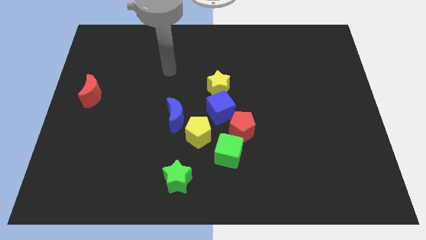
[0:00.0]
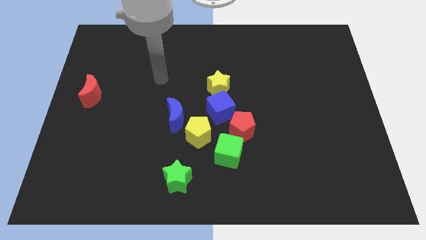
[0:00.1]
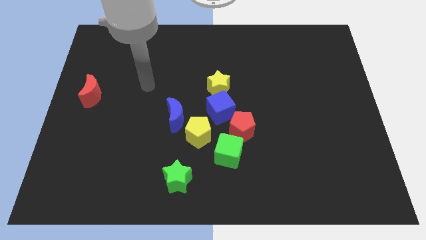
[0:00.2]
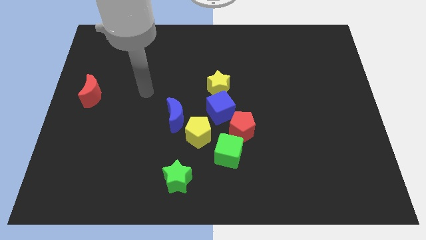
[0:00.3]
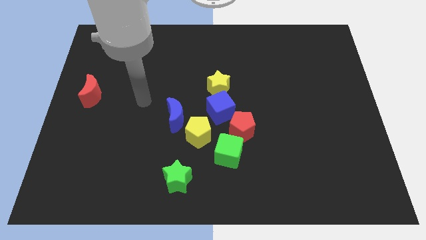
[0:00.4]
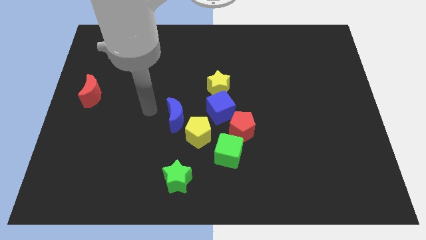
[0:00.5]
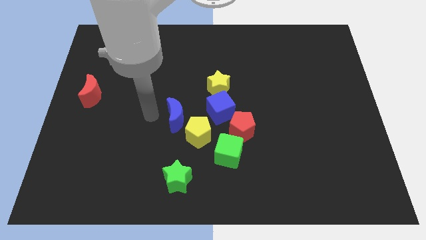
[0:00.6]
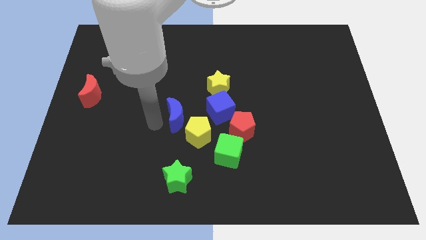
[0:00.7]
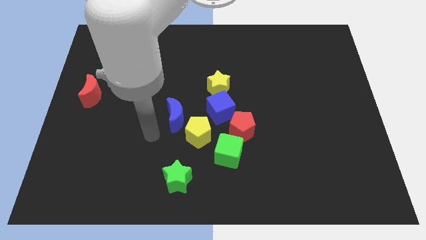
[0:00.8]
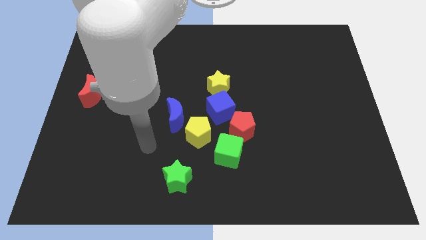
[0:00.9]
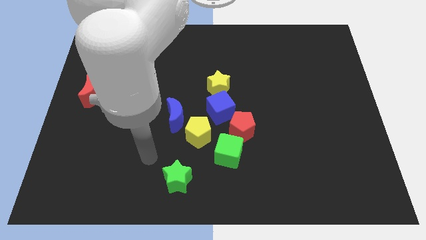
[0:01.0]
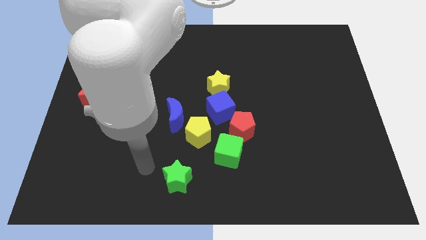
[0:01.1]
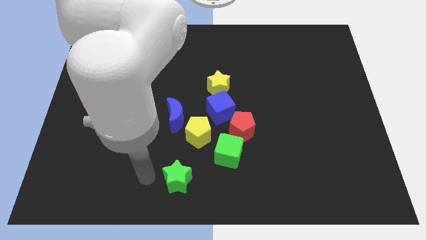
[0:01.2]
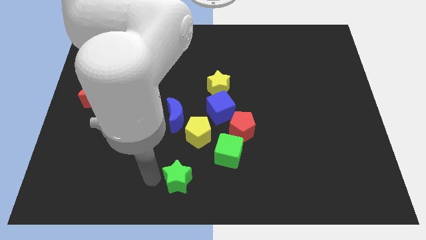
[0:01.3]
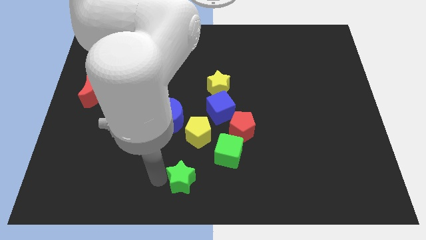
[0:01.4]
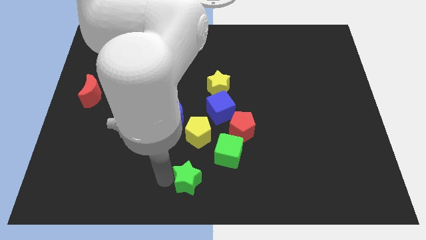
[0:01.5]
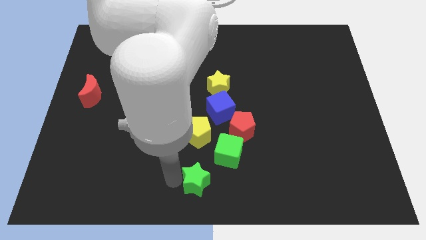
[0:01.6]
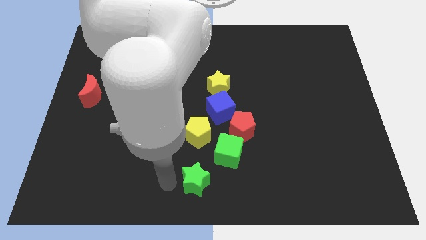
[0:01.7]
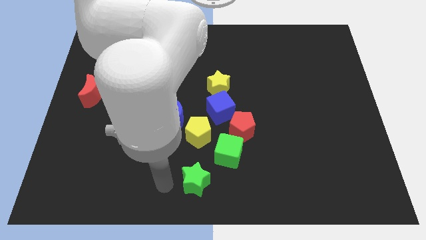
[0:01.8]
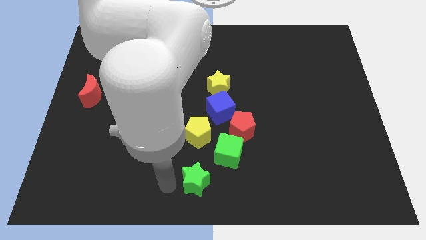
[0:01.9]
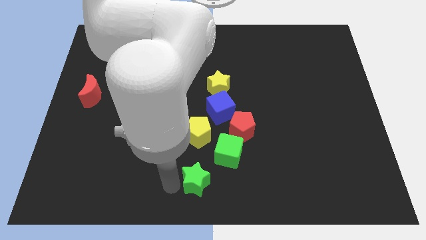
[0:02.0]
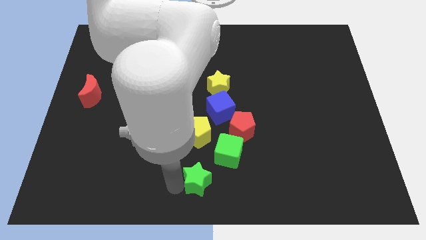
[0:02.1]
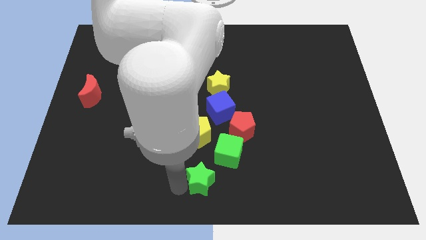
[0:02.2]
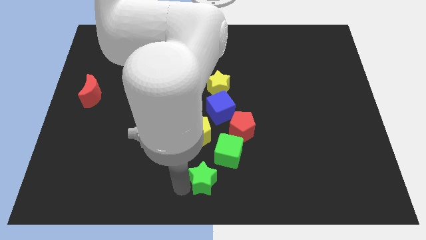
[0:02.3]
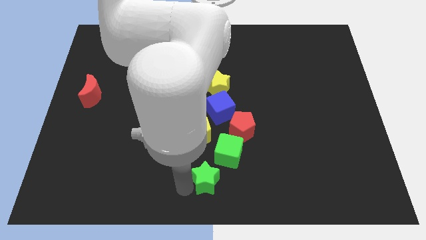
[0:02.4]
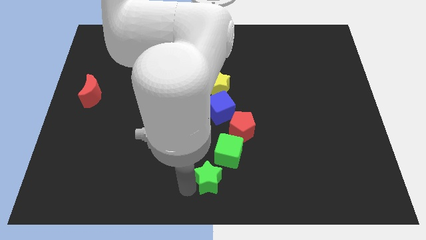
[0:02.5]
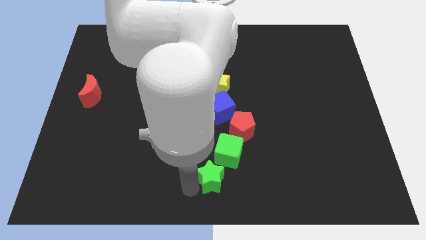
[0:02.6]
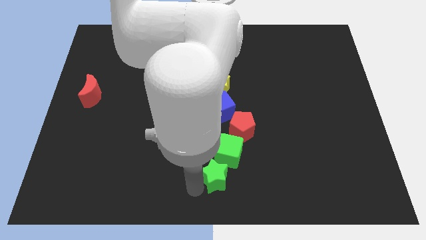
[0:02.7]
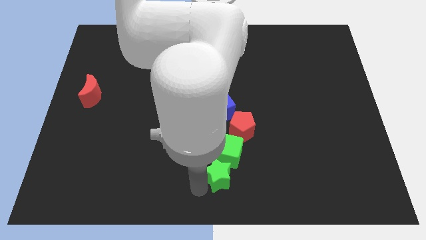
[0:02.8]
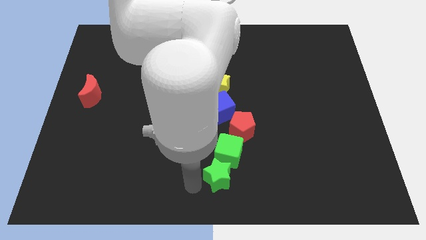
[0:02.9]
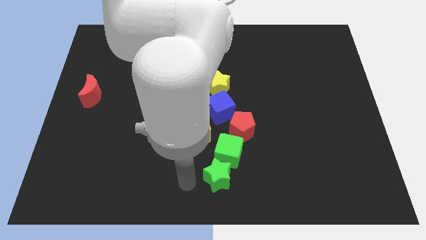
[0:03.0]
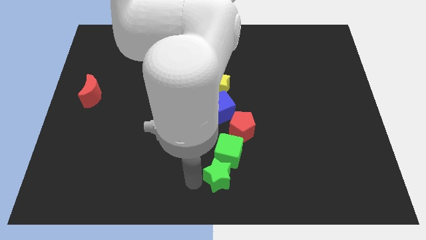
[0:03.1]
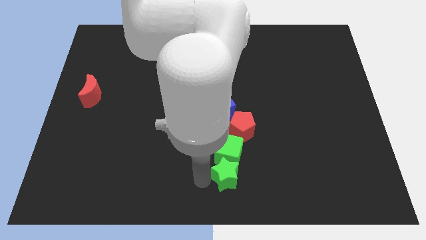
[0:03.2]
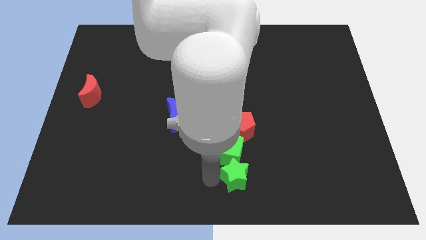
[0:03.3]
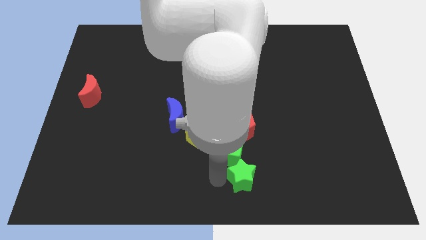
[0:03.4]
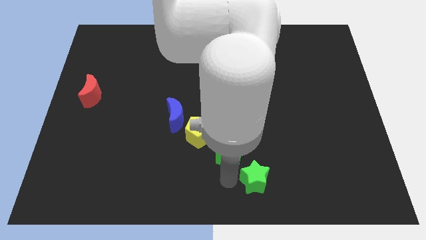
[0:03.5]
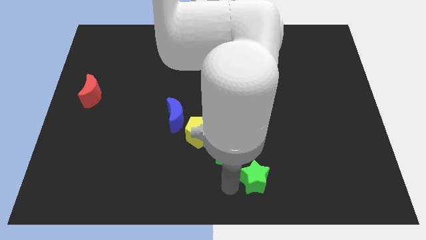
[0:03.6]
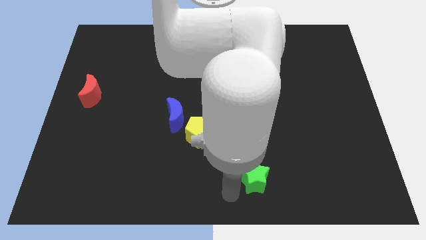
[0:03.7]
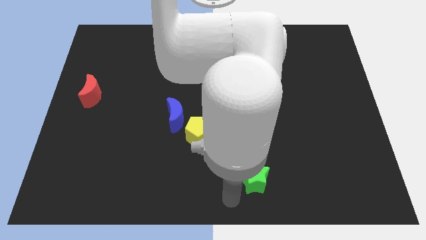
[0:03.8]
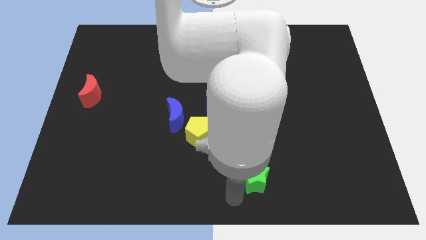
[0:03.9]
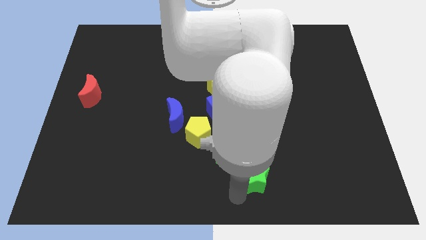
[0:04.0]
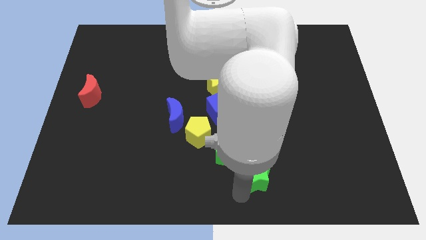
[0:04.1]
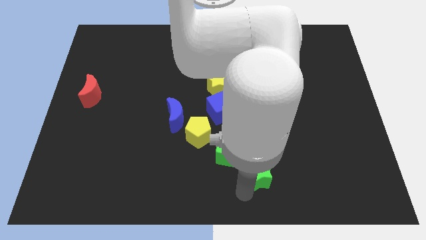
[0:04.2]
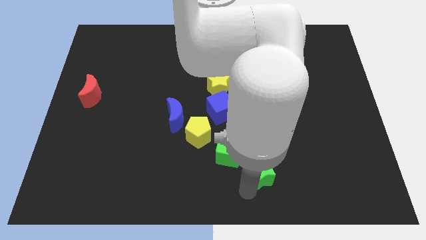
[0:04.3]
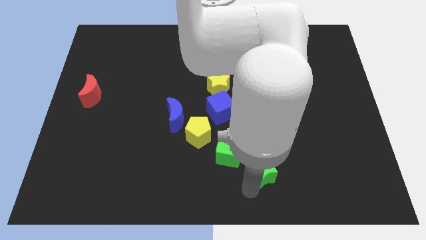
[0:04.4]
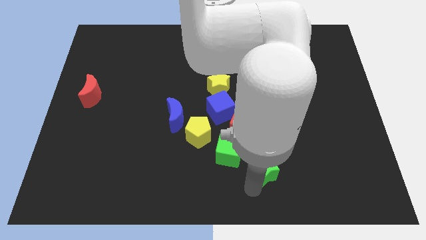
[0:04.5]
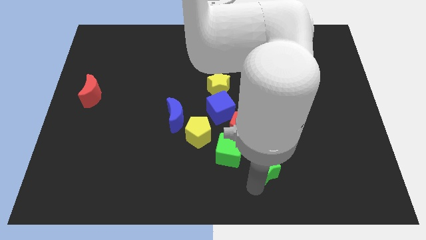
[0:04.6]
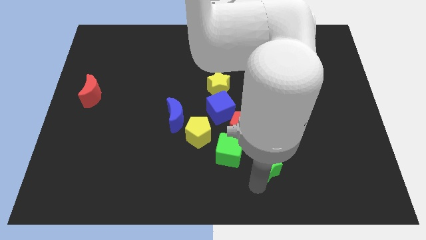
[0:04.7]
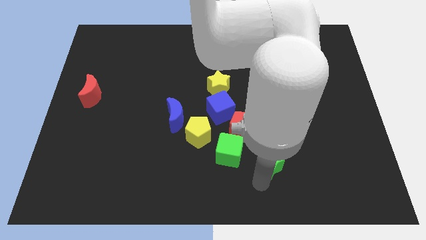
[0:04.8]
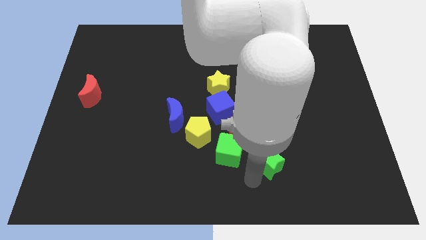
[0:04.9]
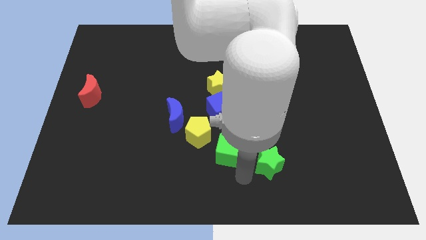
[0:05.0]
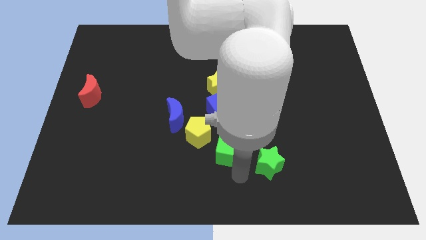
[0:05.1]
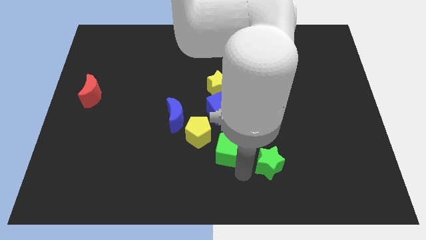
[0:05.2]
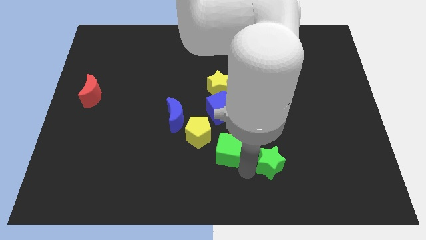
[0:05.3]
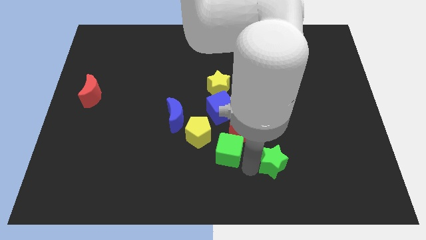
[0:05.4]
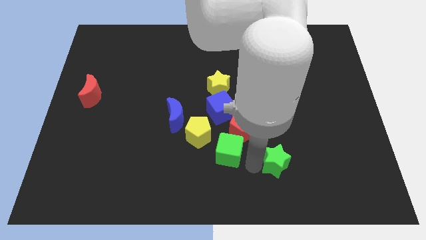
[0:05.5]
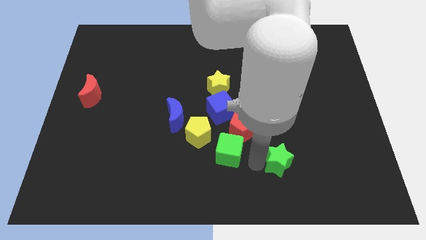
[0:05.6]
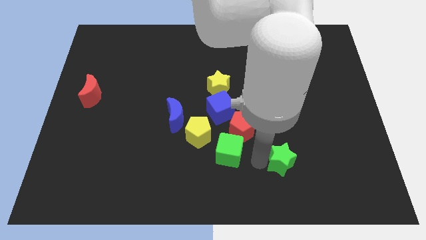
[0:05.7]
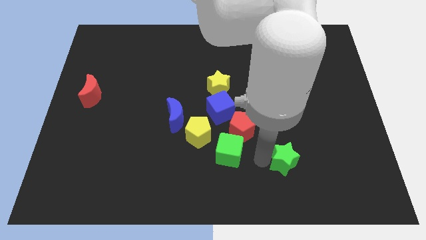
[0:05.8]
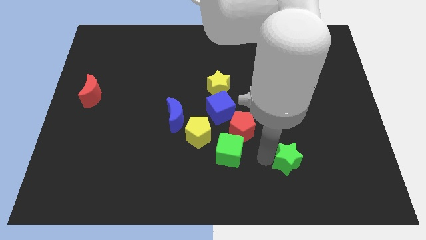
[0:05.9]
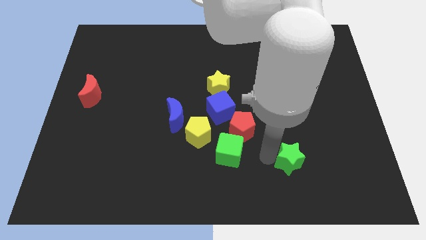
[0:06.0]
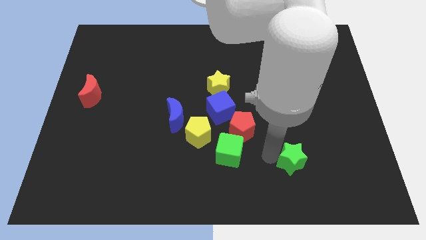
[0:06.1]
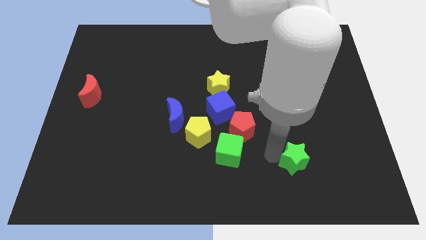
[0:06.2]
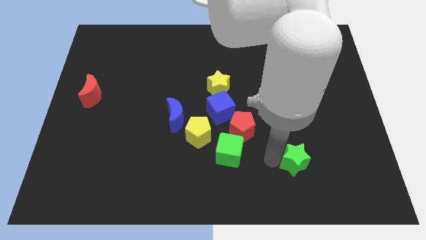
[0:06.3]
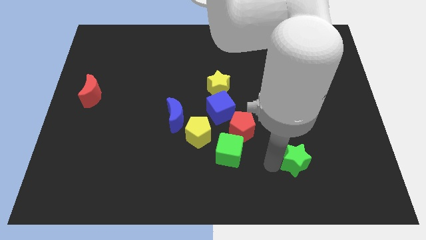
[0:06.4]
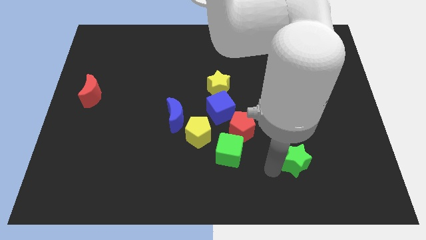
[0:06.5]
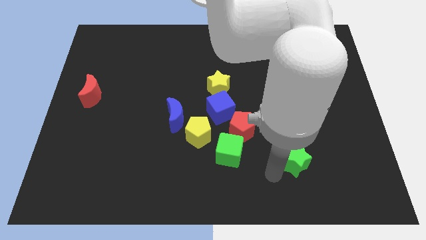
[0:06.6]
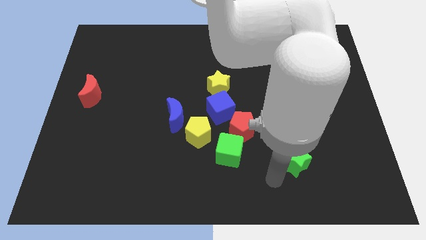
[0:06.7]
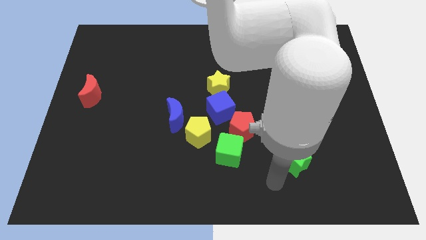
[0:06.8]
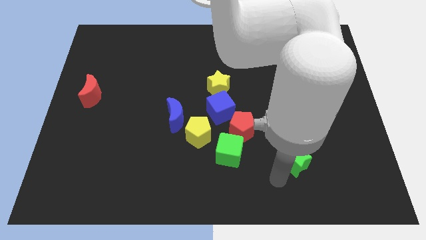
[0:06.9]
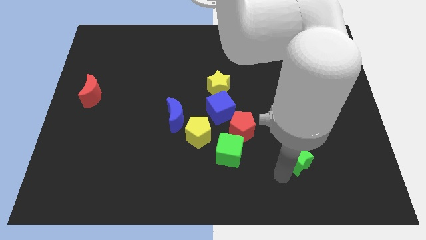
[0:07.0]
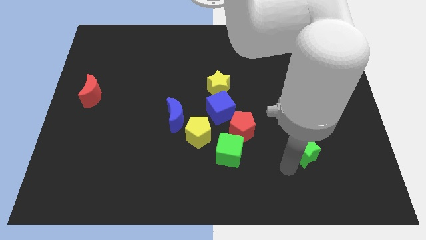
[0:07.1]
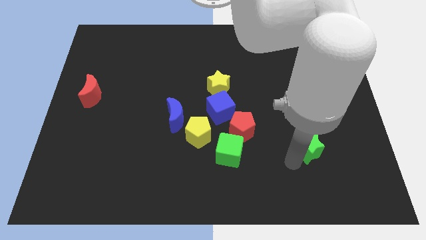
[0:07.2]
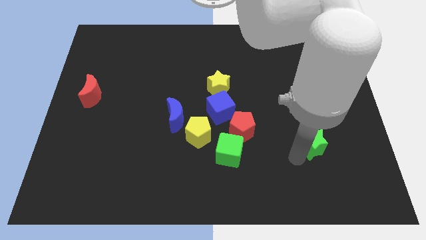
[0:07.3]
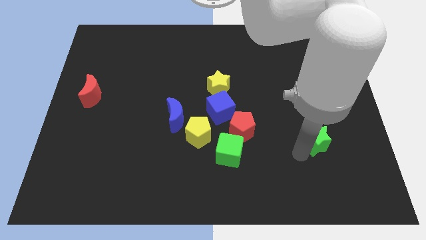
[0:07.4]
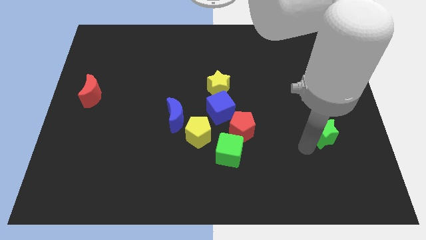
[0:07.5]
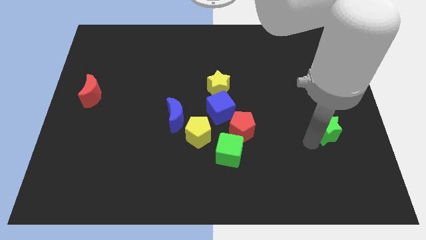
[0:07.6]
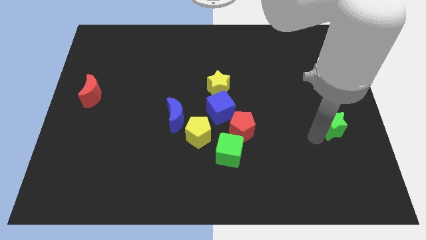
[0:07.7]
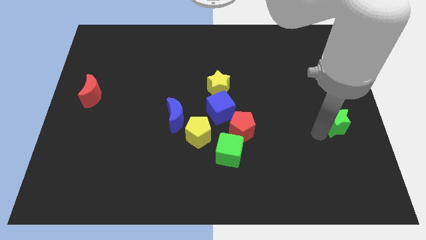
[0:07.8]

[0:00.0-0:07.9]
put the green star to the right side of the board

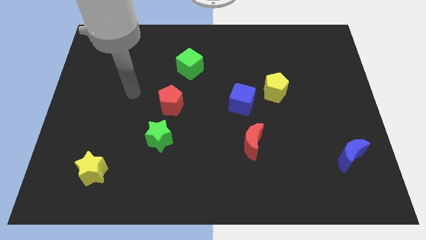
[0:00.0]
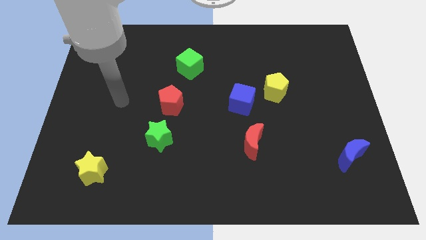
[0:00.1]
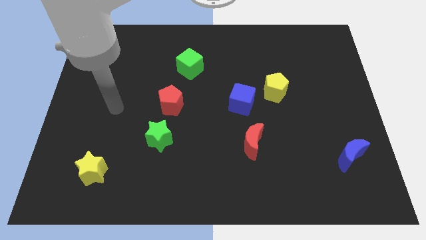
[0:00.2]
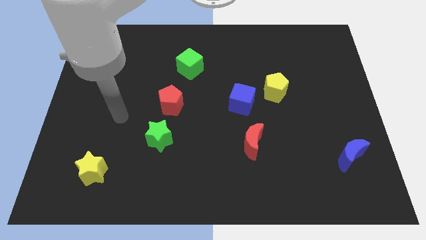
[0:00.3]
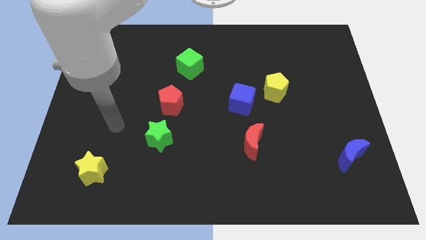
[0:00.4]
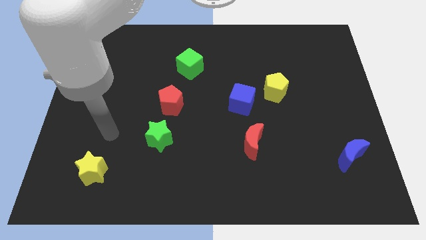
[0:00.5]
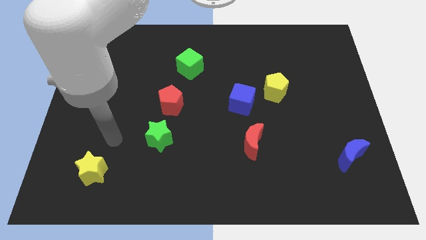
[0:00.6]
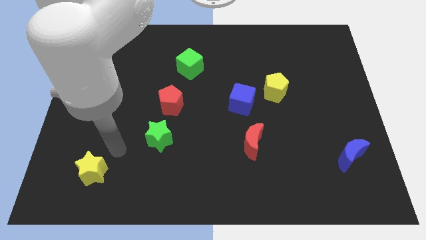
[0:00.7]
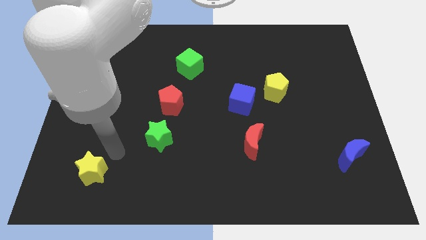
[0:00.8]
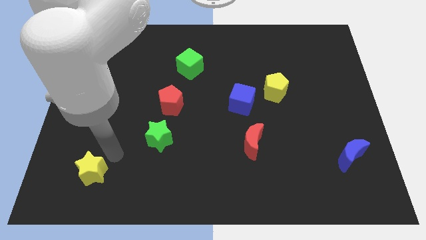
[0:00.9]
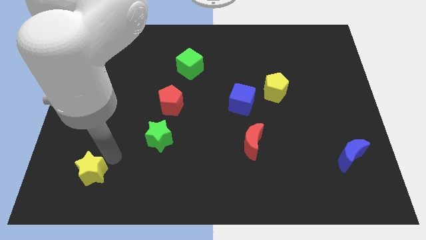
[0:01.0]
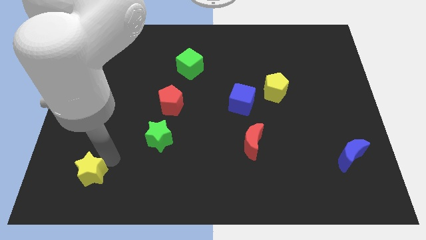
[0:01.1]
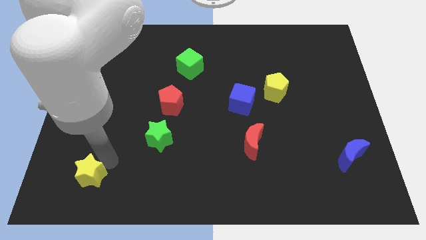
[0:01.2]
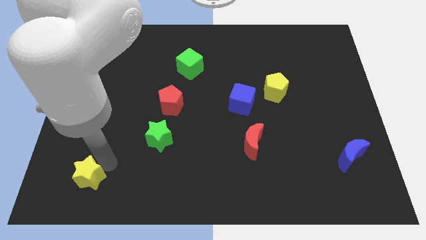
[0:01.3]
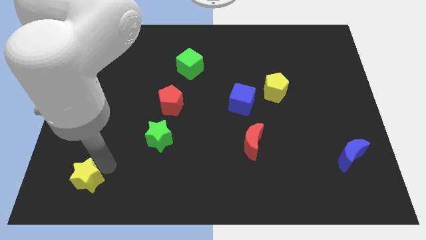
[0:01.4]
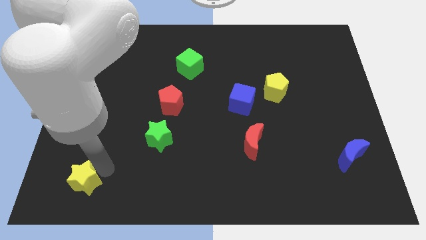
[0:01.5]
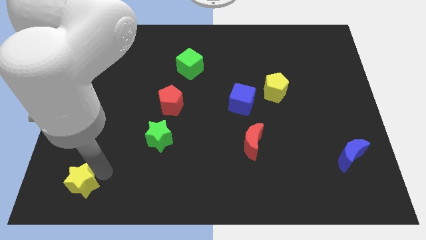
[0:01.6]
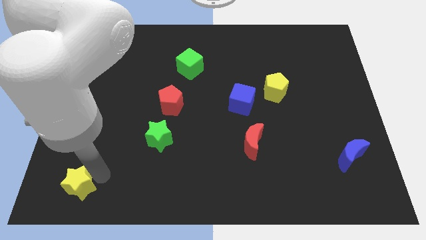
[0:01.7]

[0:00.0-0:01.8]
put the yellow star to the lower left corner
